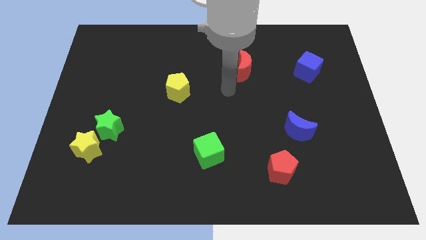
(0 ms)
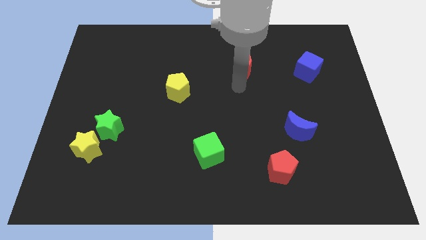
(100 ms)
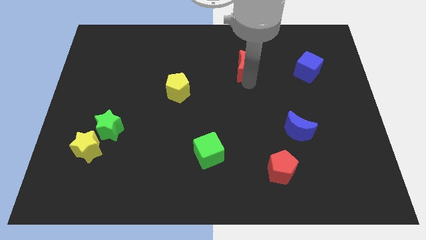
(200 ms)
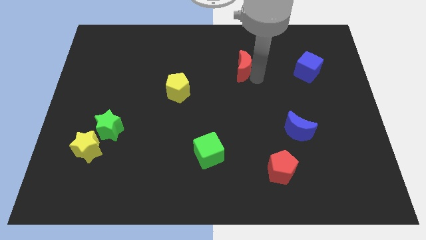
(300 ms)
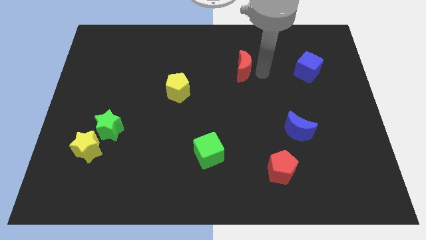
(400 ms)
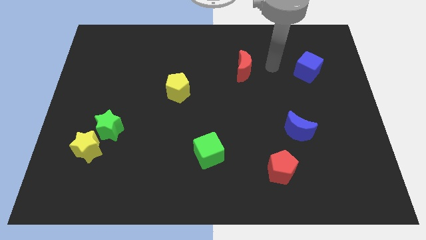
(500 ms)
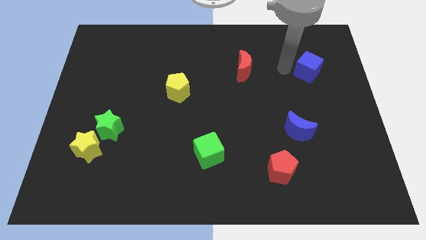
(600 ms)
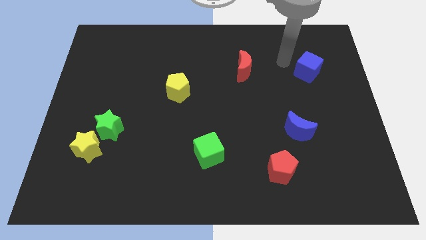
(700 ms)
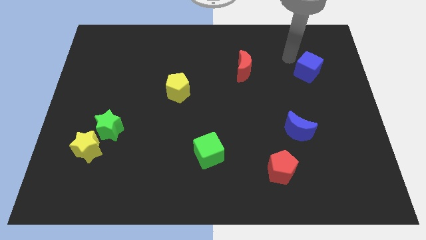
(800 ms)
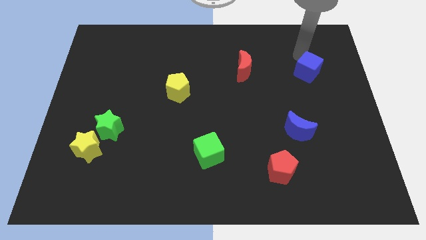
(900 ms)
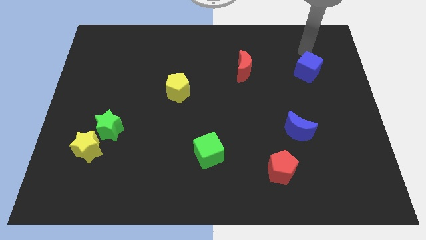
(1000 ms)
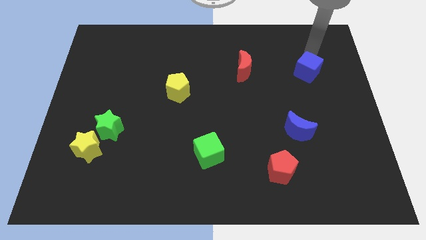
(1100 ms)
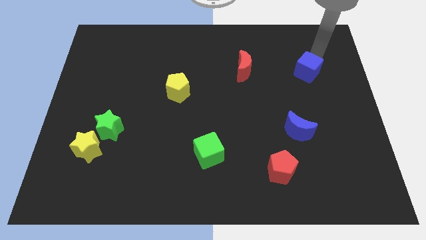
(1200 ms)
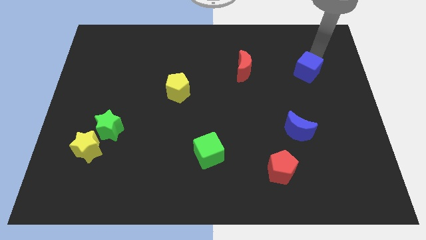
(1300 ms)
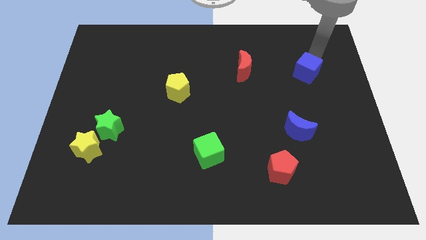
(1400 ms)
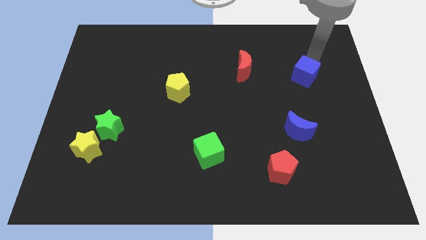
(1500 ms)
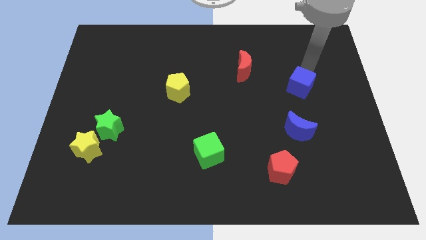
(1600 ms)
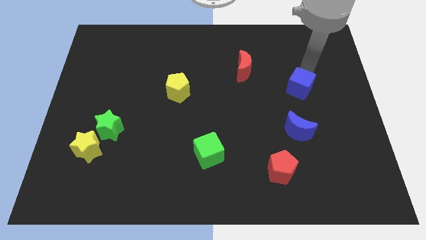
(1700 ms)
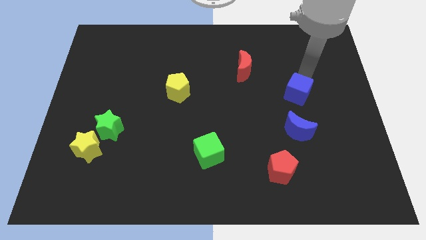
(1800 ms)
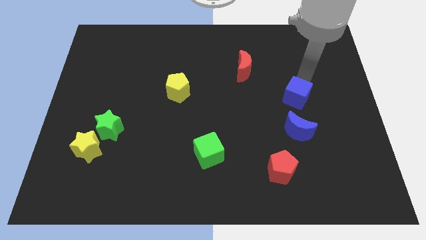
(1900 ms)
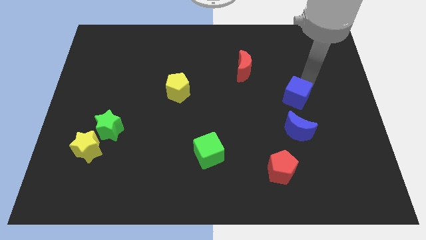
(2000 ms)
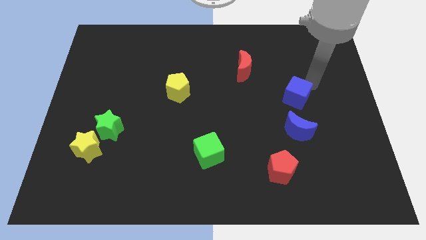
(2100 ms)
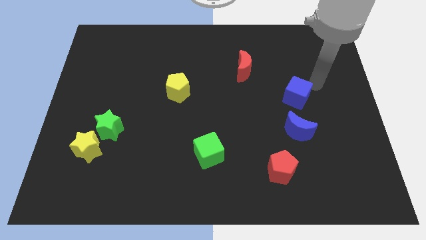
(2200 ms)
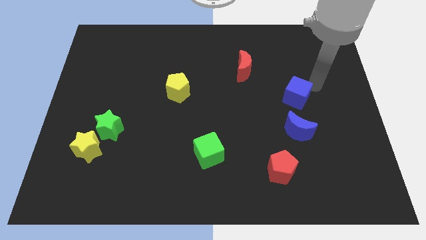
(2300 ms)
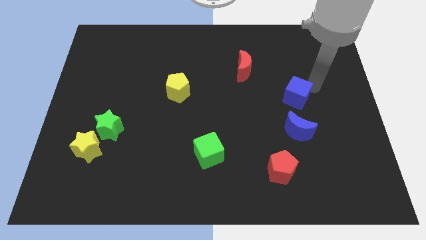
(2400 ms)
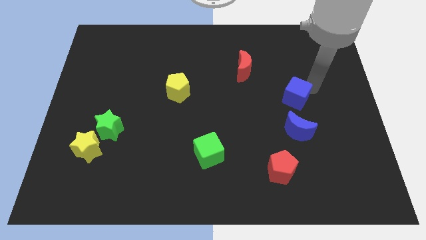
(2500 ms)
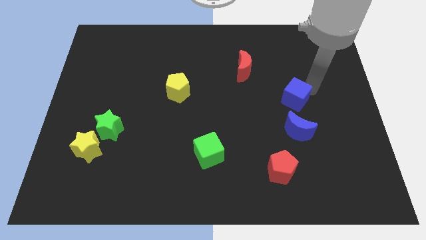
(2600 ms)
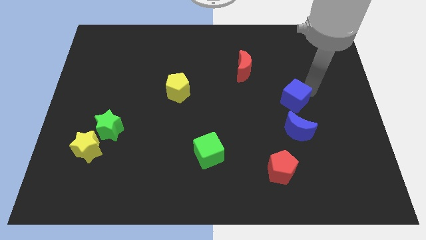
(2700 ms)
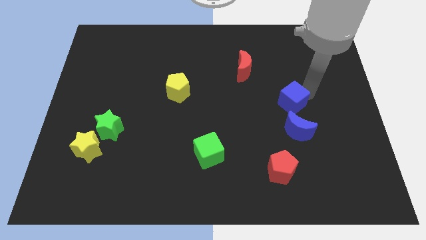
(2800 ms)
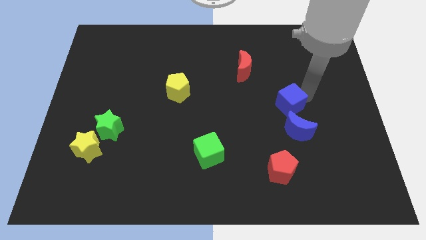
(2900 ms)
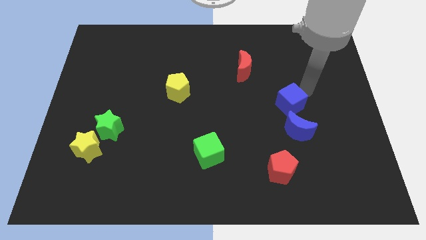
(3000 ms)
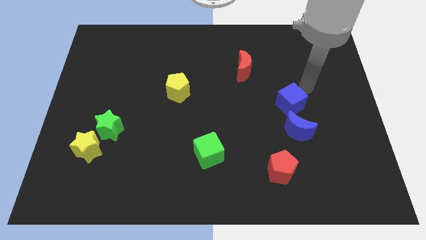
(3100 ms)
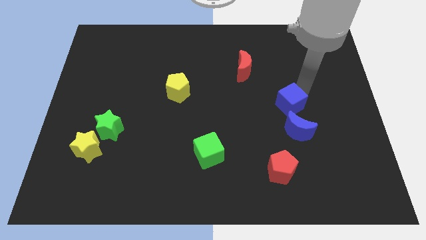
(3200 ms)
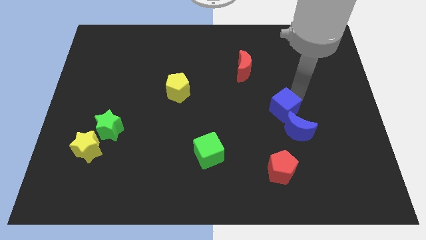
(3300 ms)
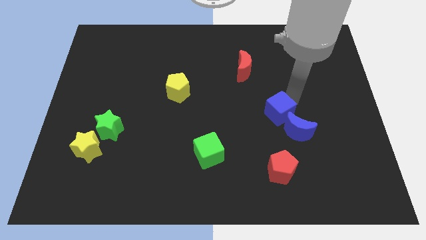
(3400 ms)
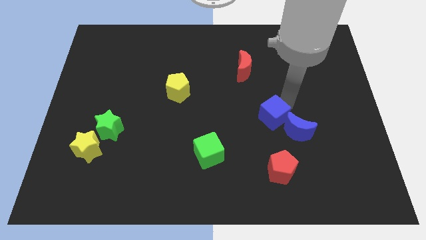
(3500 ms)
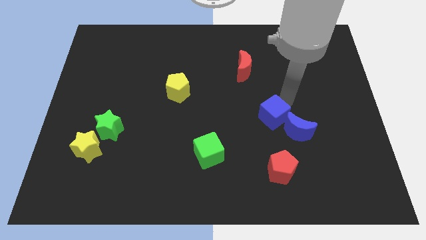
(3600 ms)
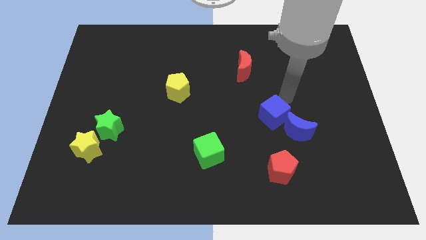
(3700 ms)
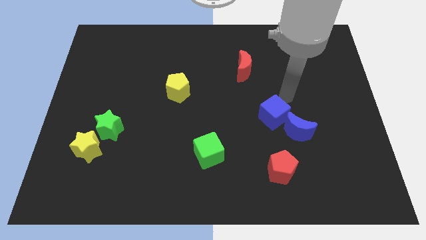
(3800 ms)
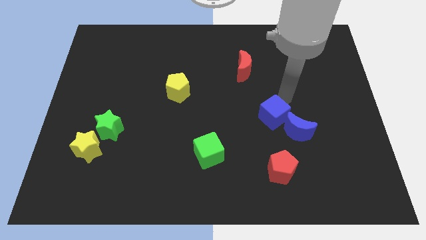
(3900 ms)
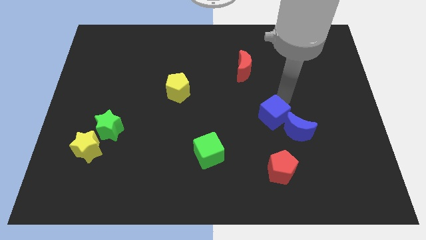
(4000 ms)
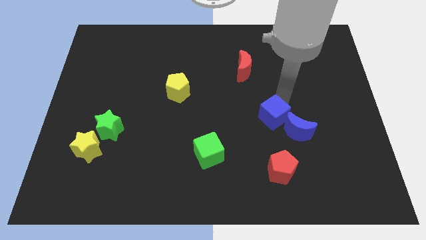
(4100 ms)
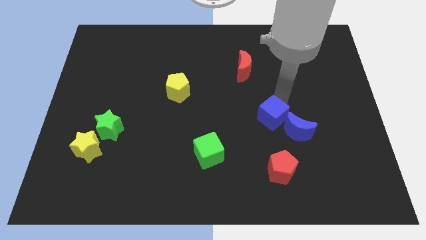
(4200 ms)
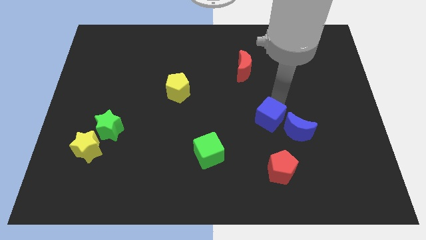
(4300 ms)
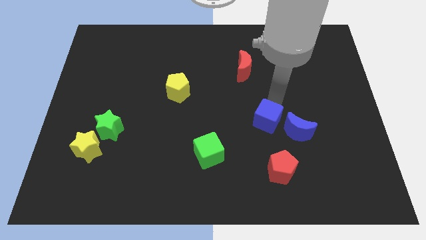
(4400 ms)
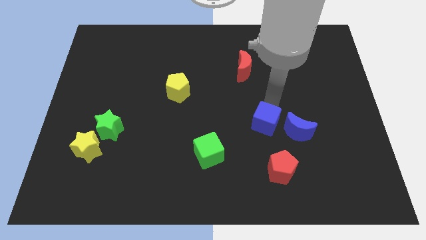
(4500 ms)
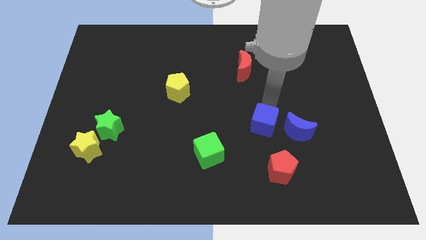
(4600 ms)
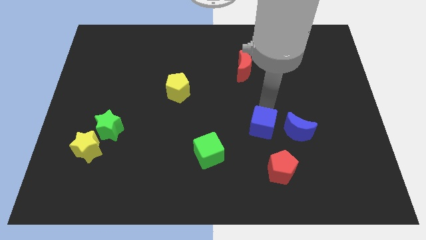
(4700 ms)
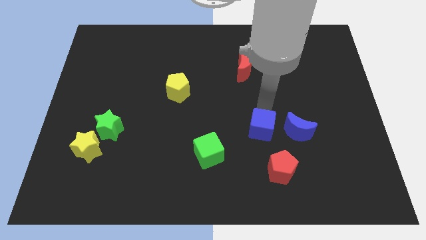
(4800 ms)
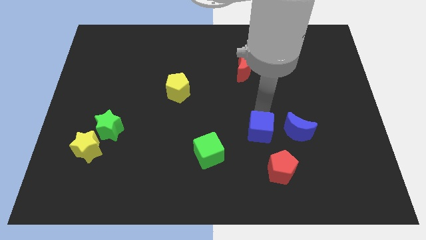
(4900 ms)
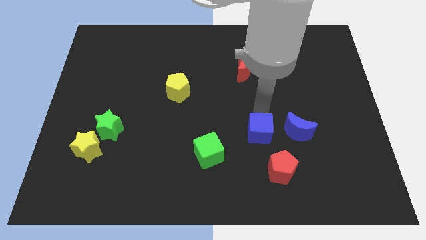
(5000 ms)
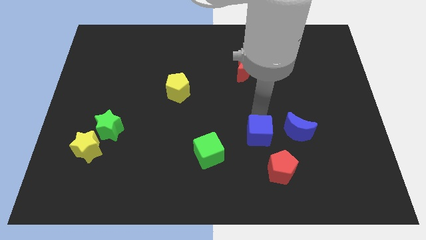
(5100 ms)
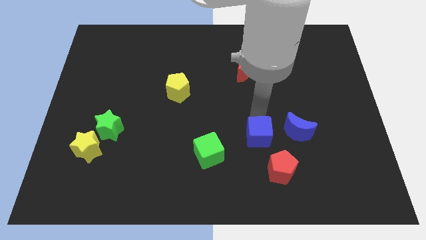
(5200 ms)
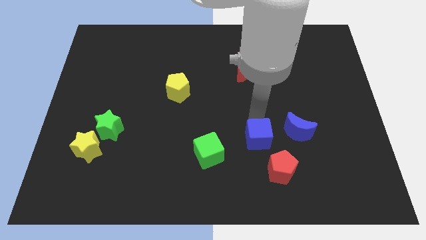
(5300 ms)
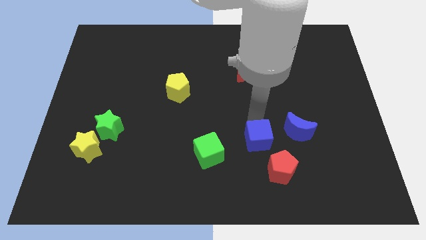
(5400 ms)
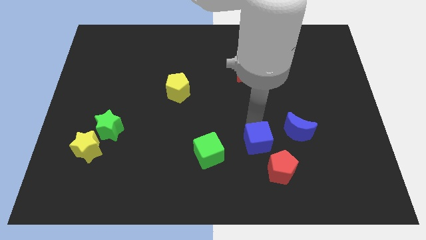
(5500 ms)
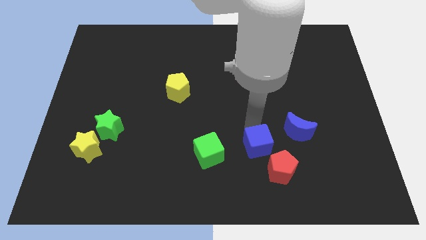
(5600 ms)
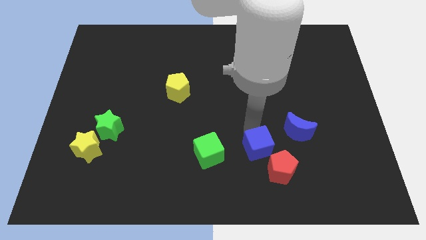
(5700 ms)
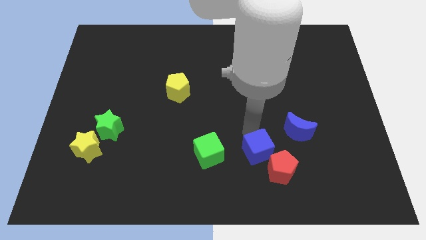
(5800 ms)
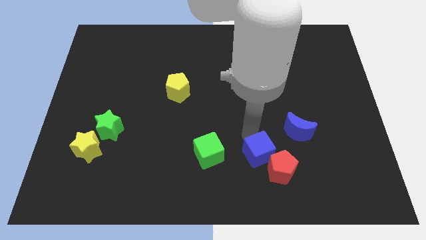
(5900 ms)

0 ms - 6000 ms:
move the blue cube towards the red pentagon

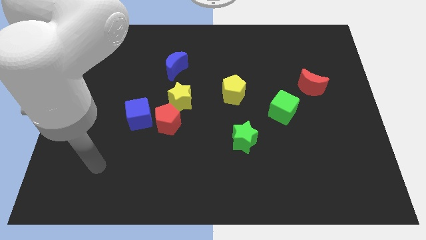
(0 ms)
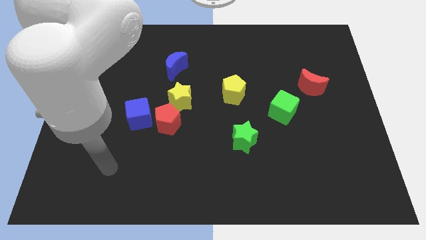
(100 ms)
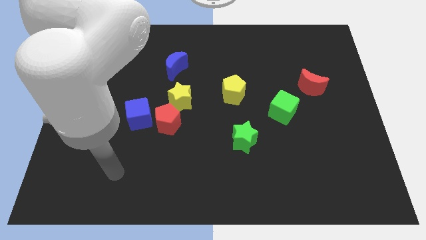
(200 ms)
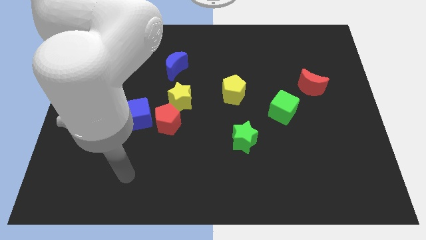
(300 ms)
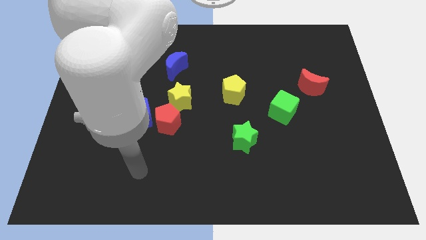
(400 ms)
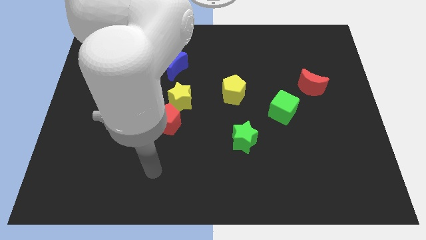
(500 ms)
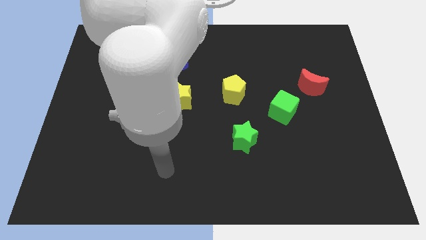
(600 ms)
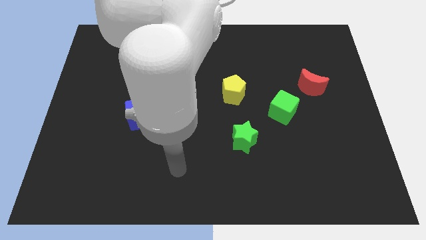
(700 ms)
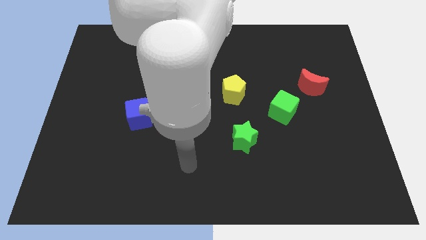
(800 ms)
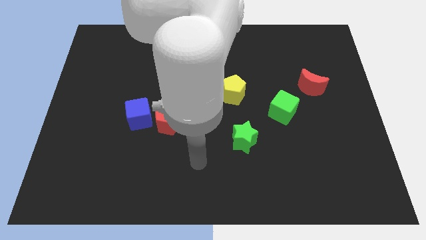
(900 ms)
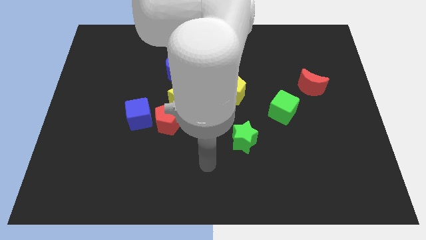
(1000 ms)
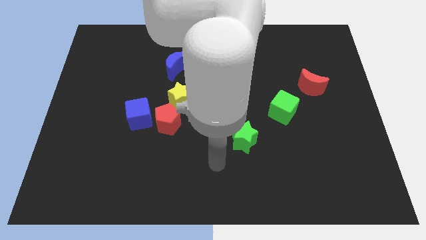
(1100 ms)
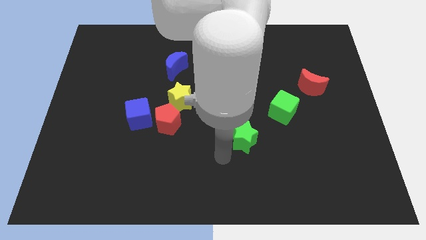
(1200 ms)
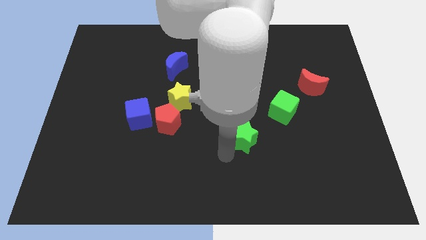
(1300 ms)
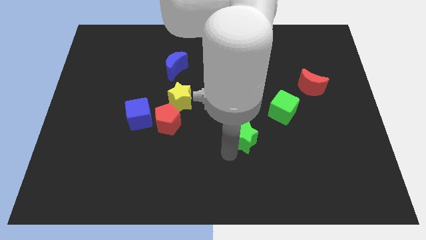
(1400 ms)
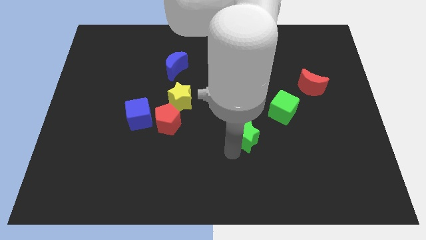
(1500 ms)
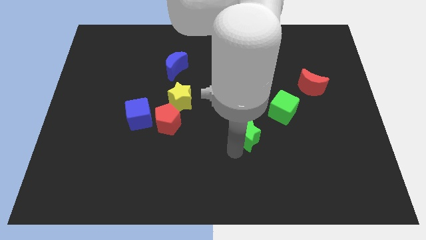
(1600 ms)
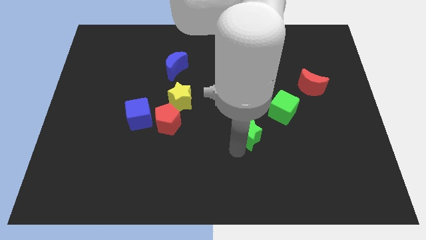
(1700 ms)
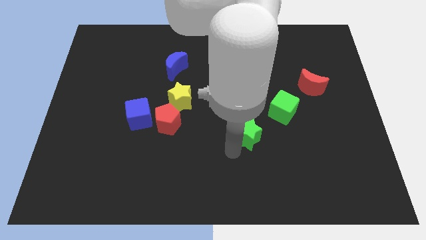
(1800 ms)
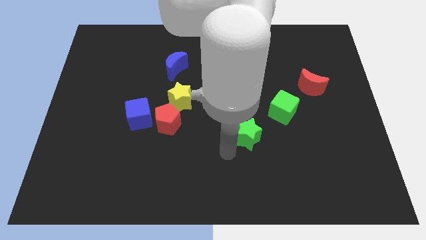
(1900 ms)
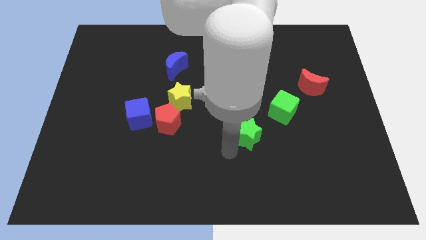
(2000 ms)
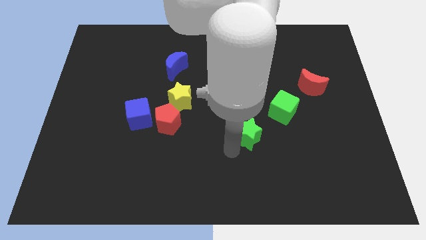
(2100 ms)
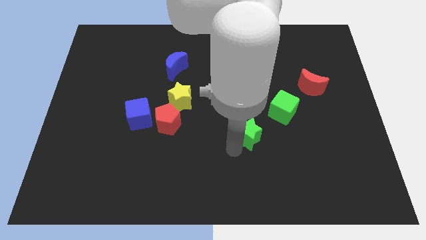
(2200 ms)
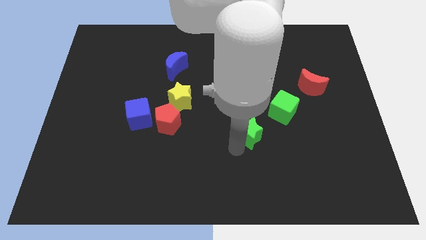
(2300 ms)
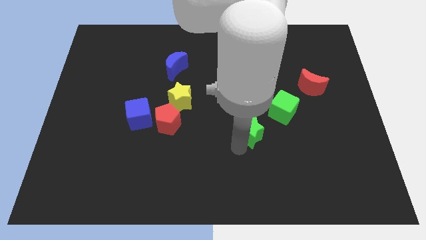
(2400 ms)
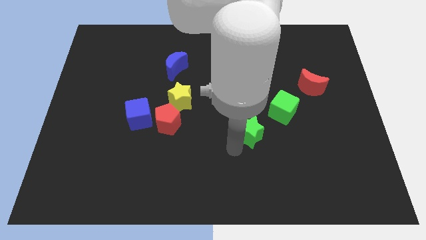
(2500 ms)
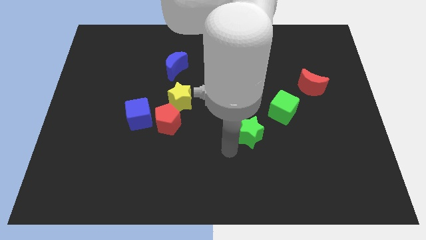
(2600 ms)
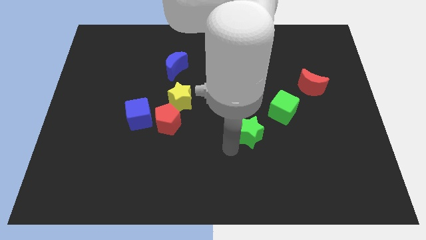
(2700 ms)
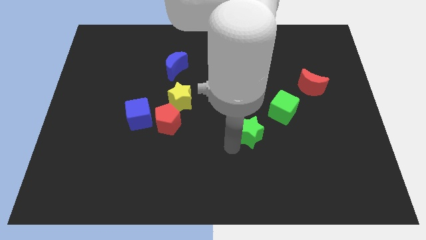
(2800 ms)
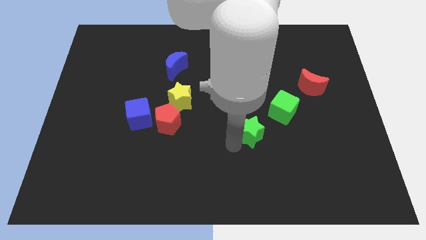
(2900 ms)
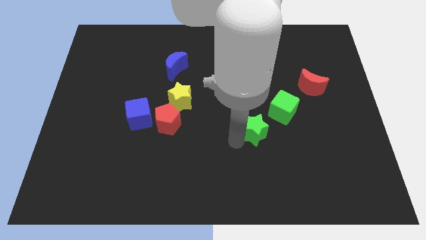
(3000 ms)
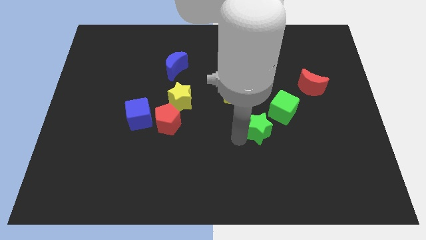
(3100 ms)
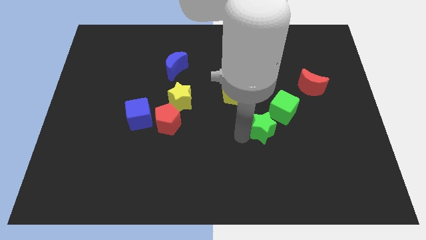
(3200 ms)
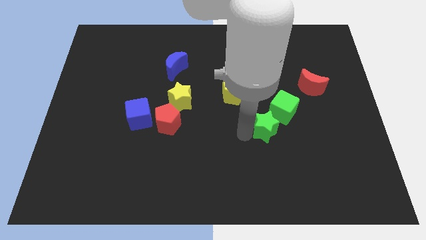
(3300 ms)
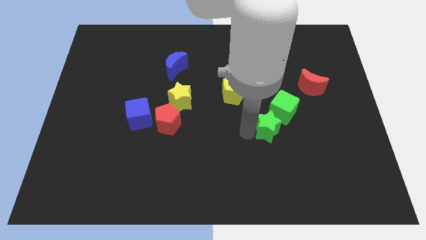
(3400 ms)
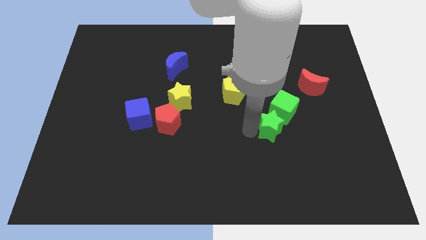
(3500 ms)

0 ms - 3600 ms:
move the green star next to the green cube
